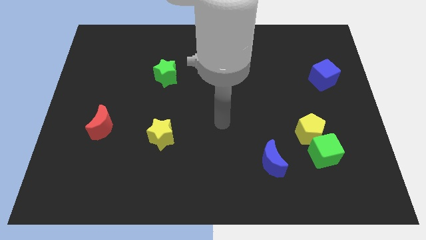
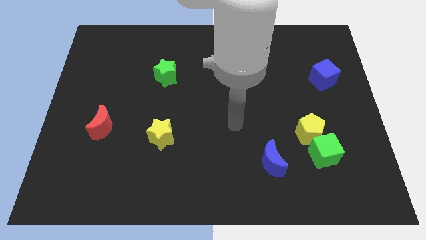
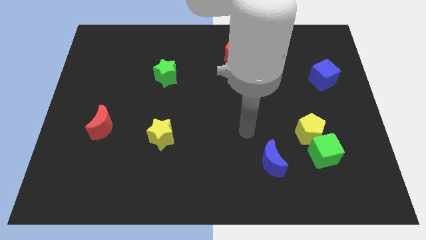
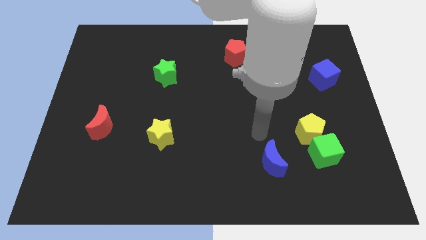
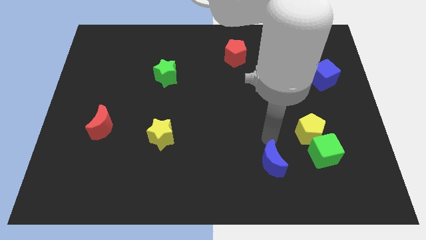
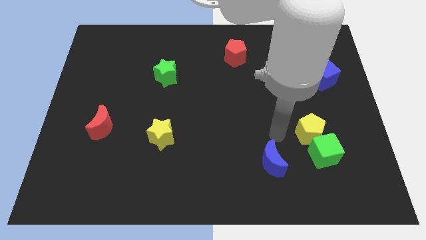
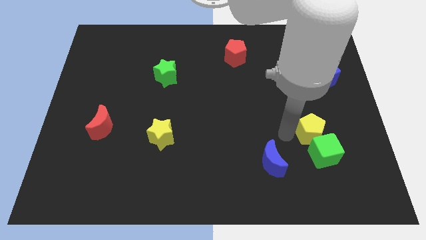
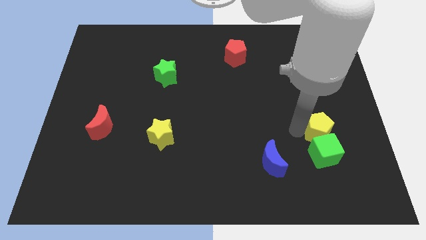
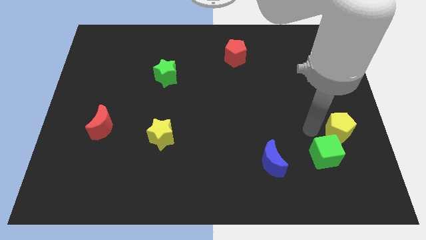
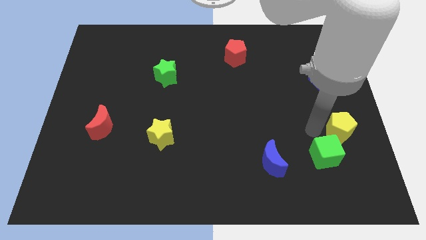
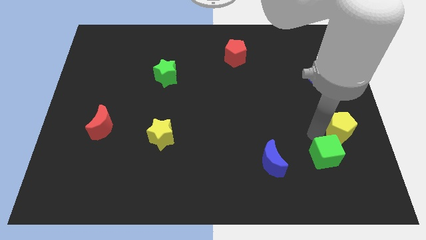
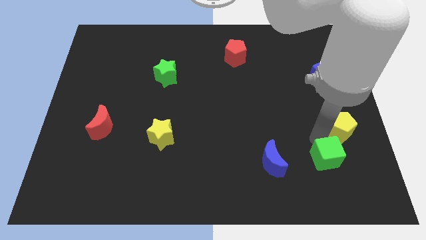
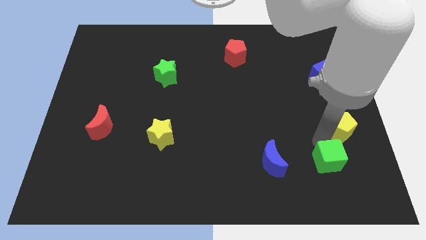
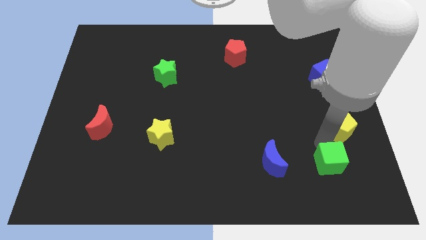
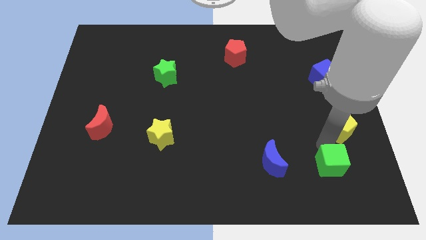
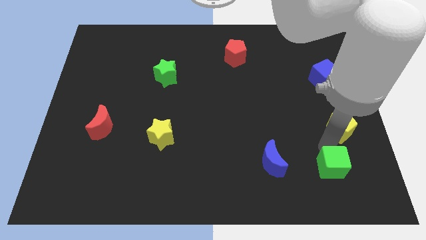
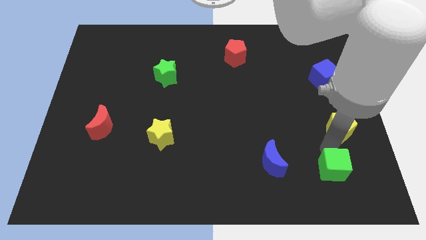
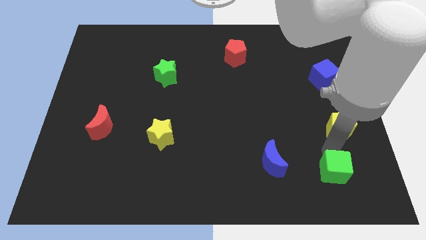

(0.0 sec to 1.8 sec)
move the green cube away from the yellow pentagon

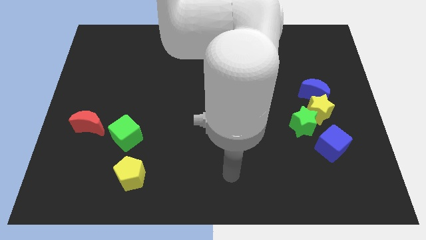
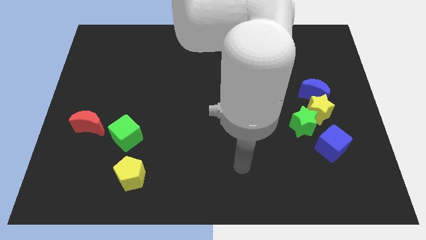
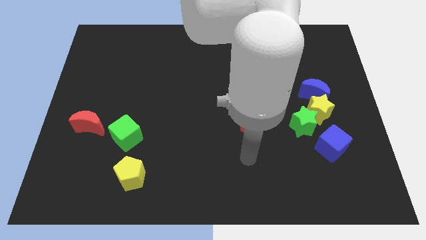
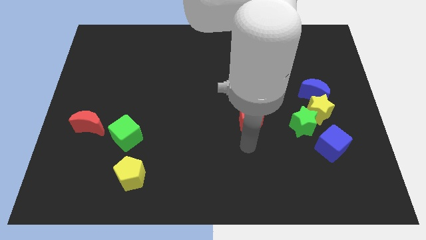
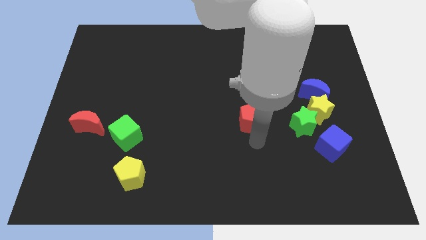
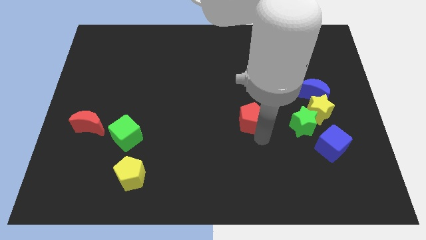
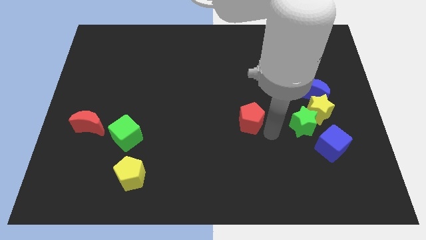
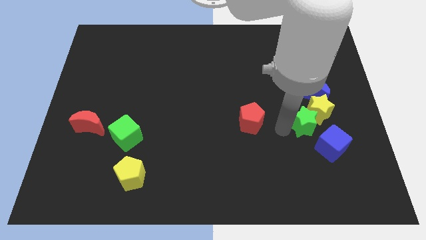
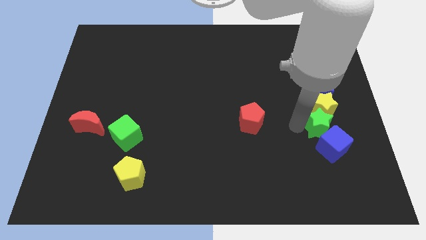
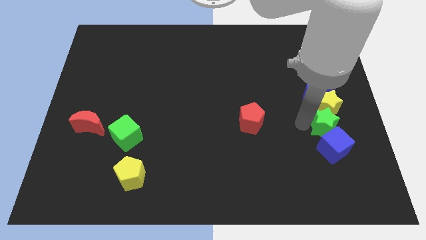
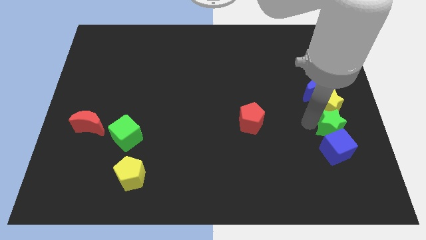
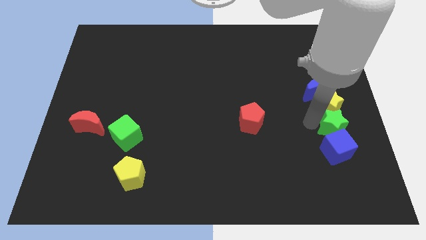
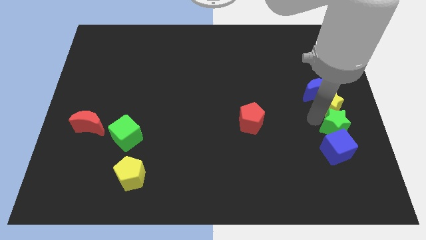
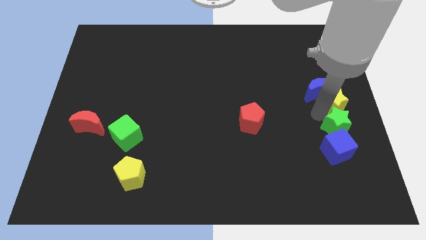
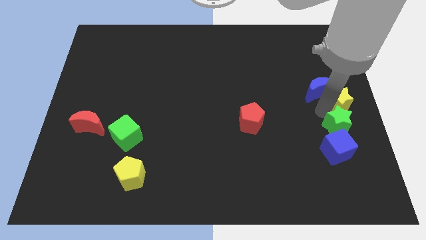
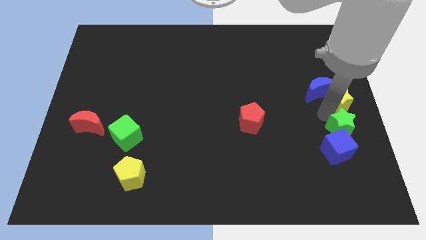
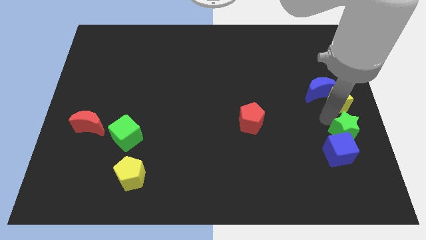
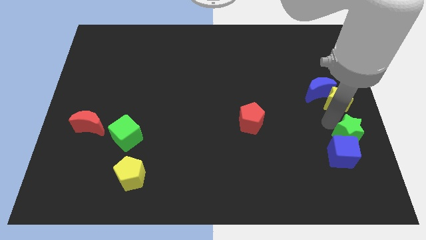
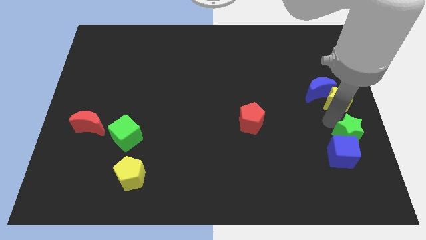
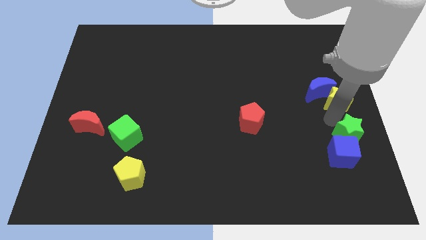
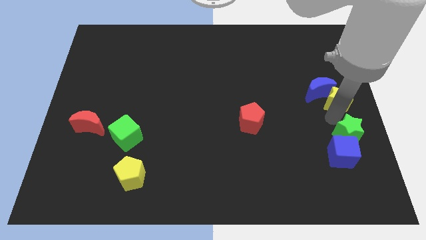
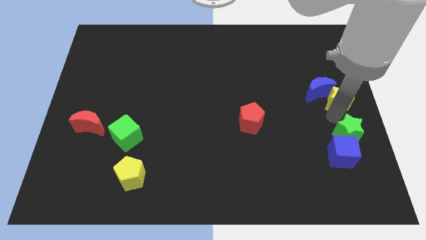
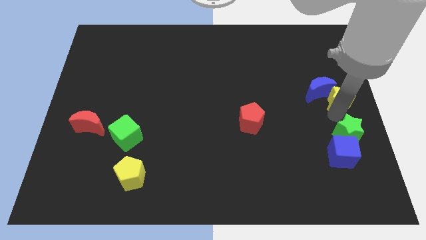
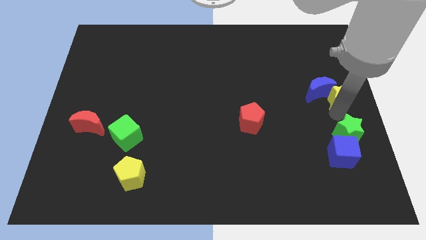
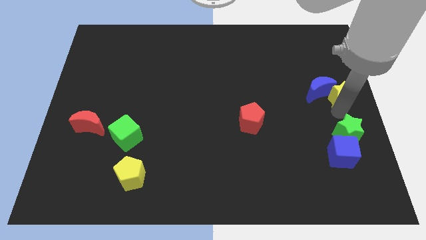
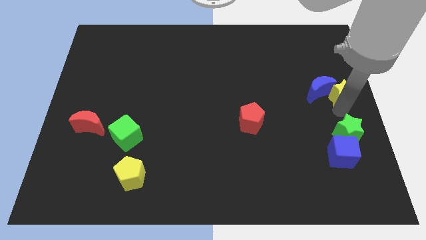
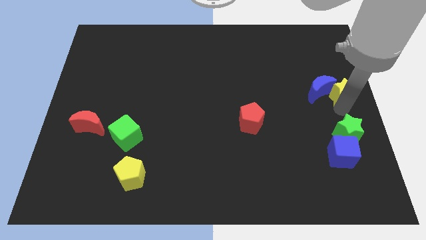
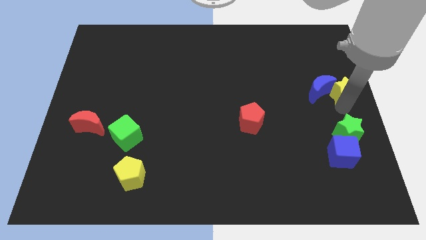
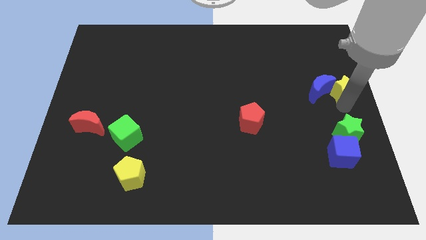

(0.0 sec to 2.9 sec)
pull the yellow star apart from the clump

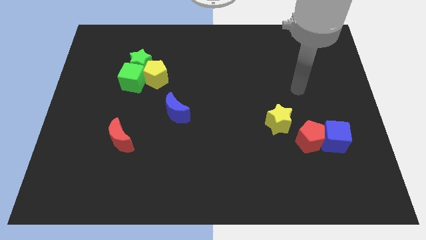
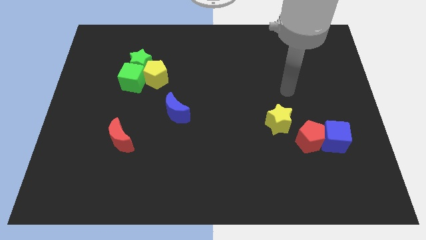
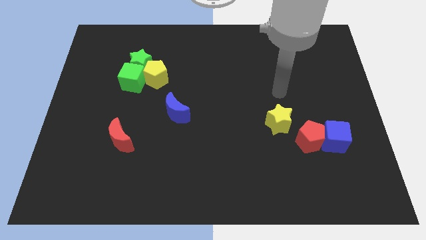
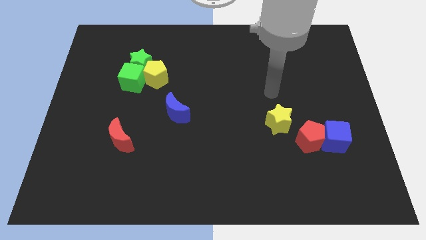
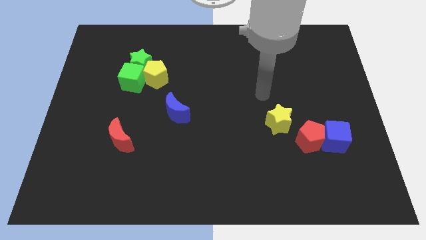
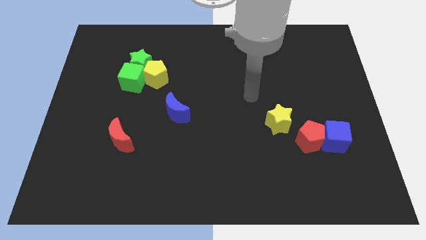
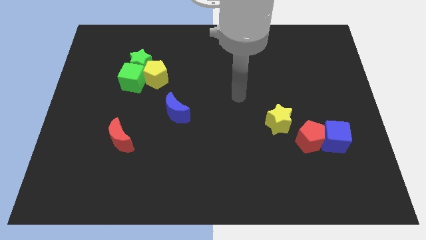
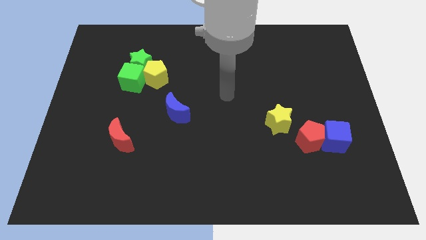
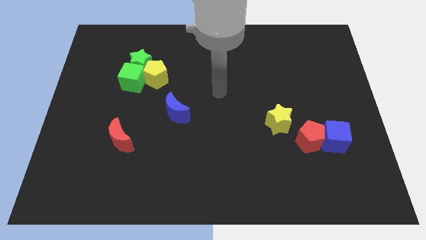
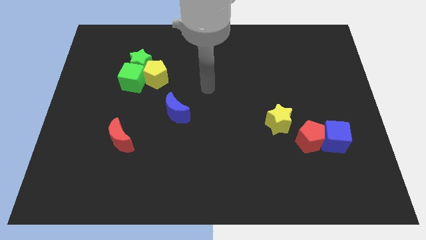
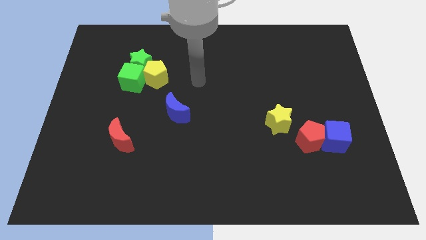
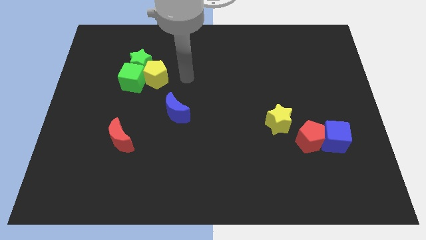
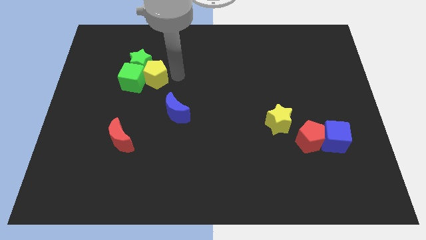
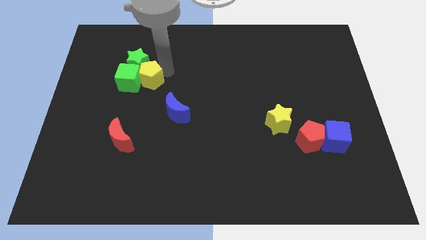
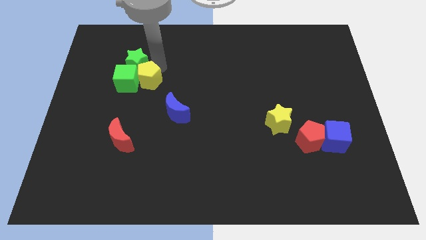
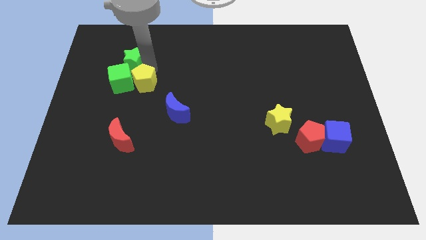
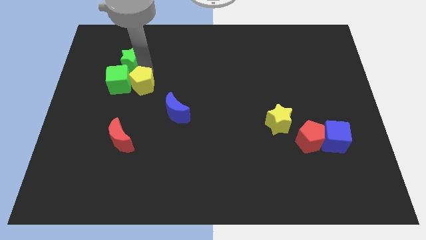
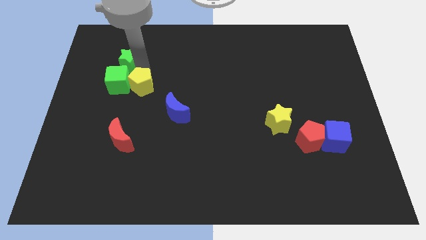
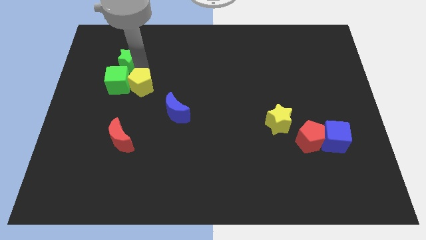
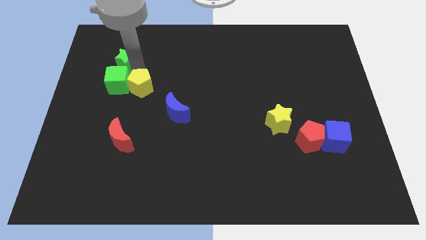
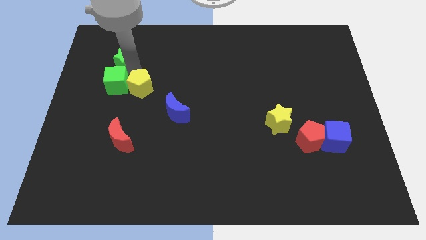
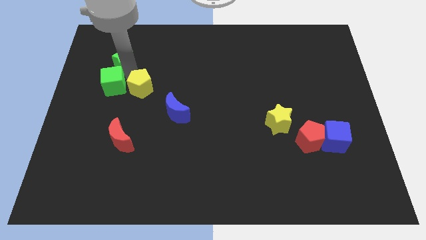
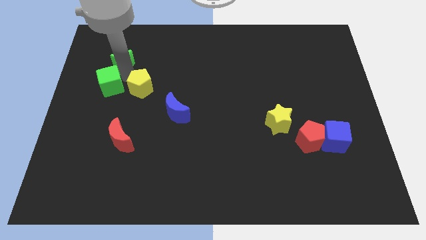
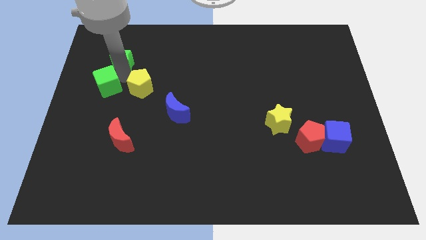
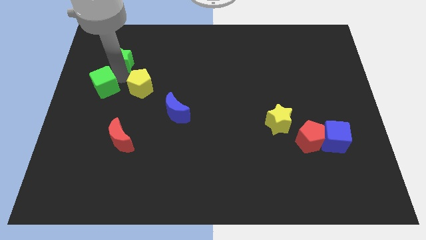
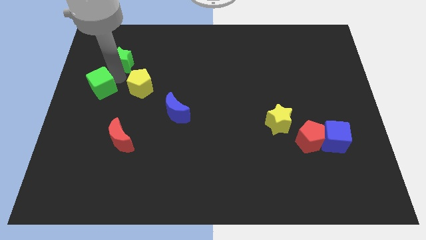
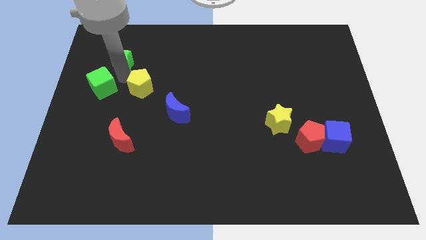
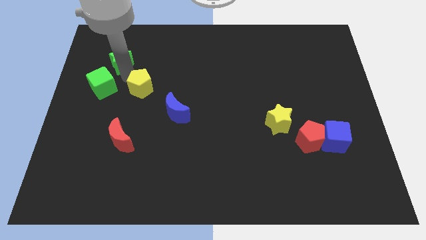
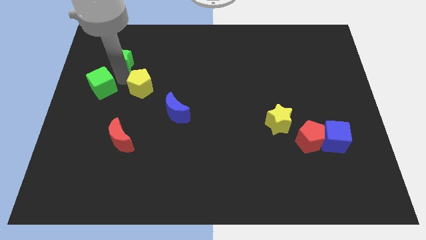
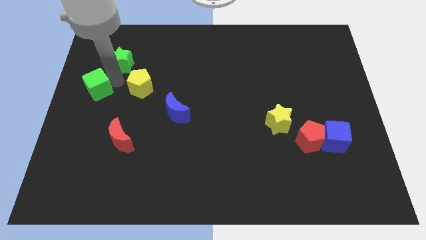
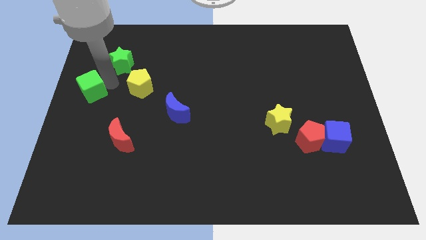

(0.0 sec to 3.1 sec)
separate the green cube from the green star and yellow pentagon

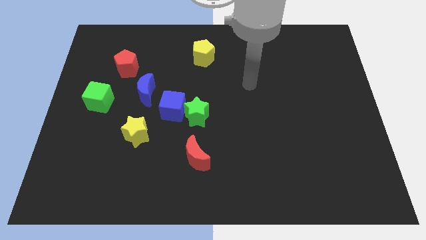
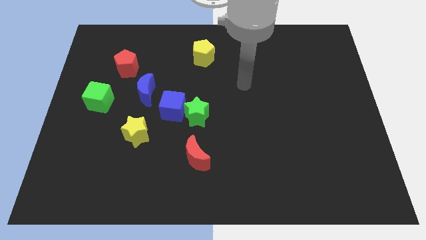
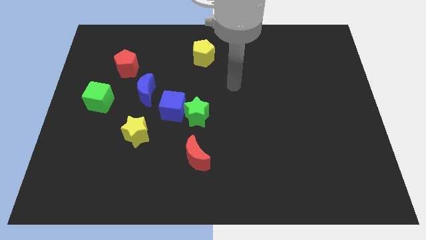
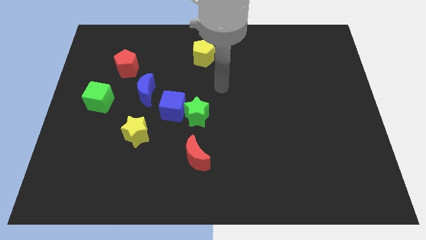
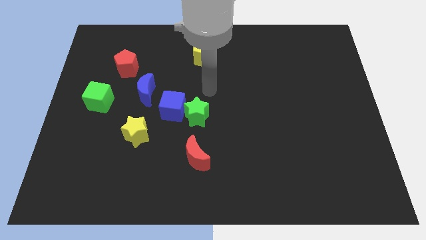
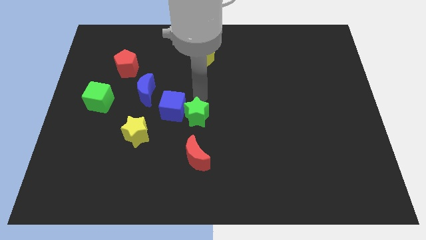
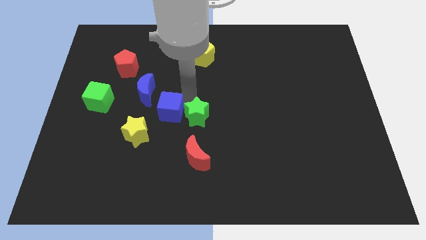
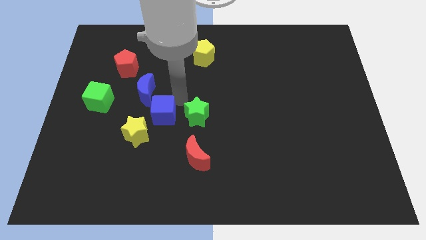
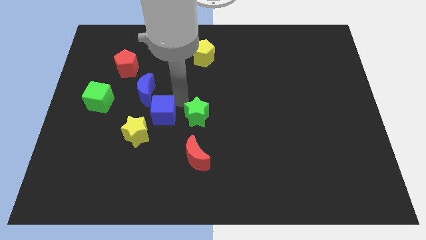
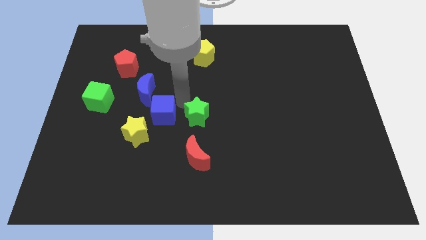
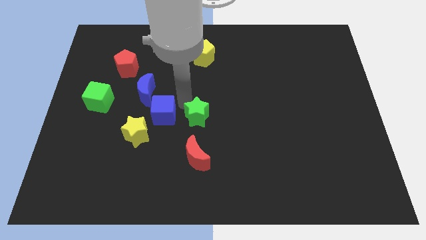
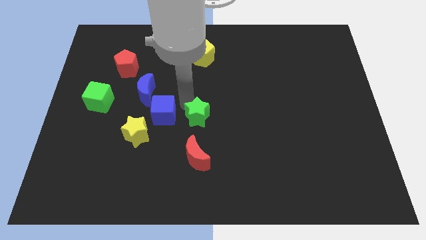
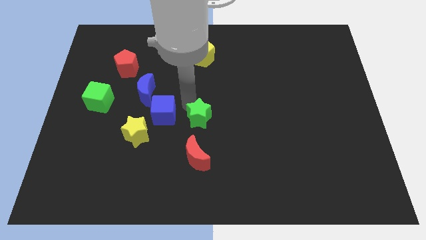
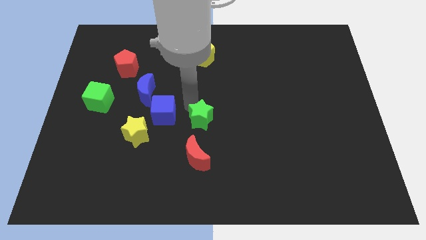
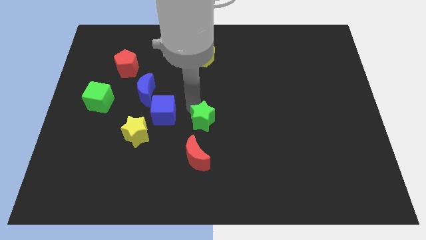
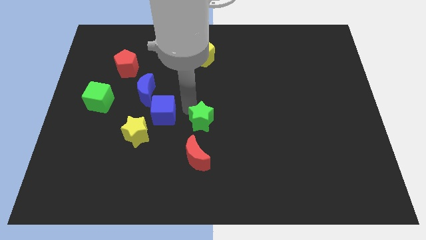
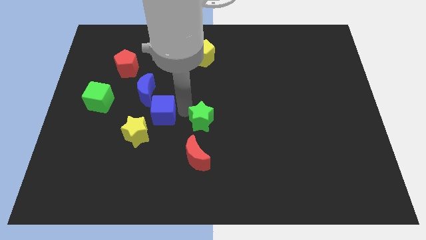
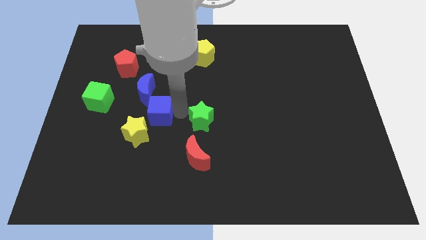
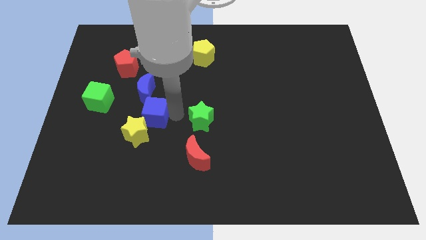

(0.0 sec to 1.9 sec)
separate the green star from the blue cube
